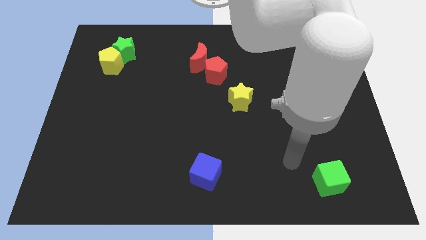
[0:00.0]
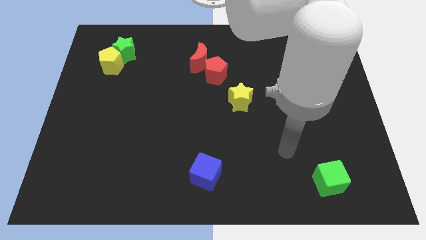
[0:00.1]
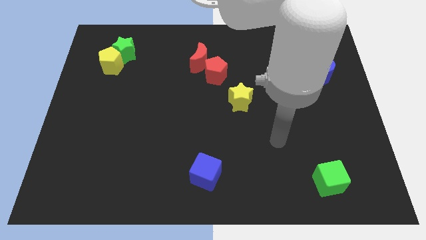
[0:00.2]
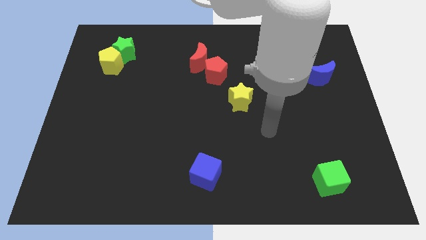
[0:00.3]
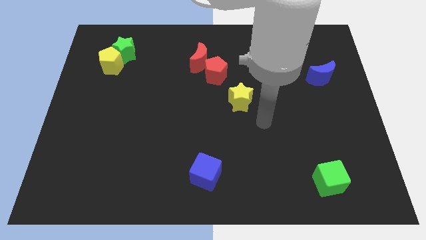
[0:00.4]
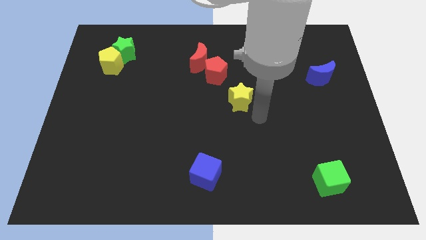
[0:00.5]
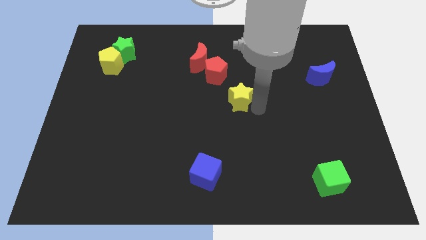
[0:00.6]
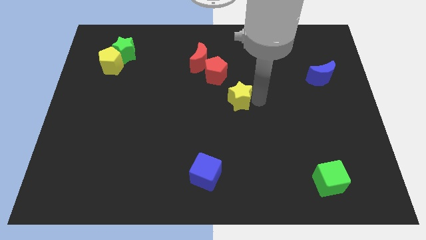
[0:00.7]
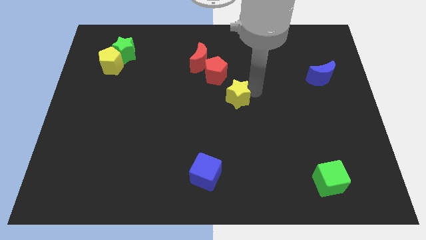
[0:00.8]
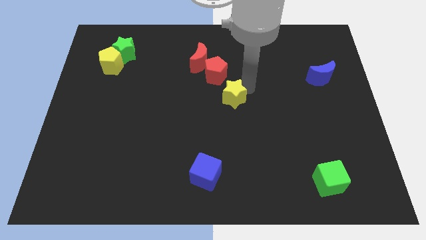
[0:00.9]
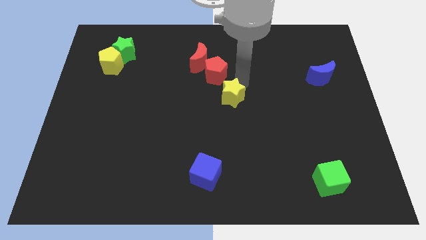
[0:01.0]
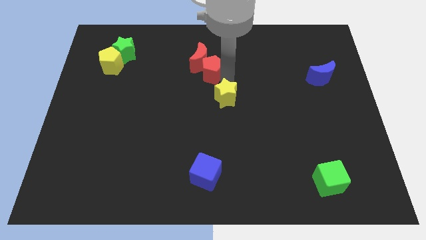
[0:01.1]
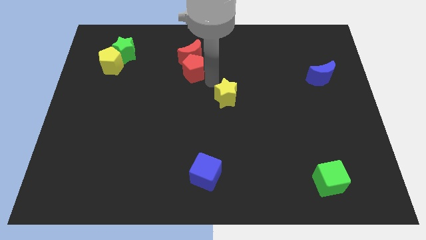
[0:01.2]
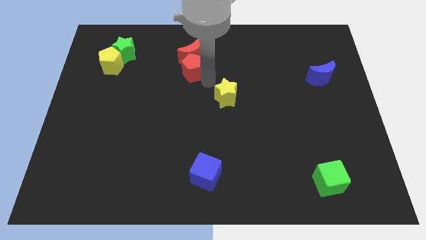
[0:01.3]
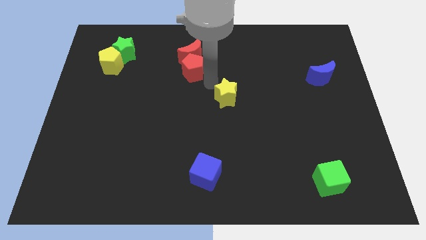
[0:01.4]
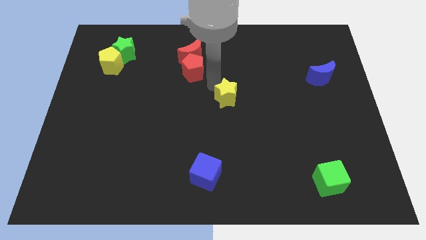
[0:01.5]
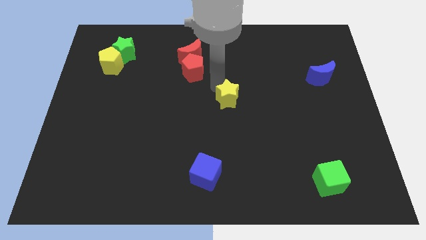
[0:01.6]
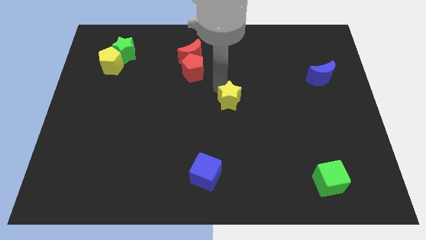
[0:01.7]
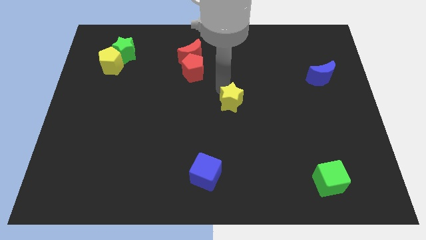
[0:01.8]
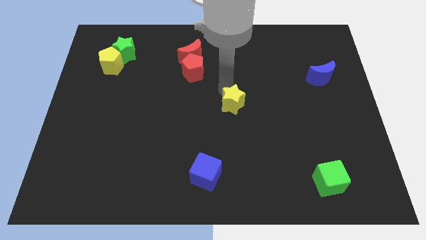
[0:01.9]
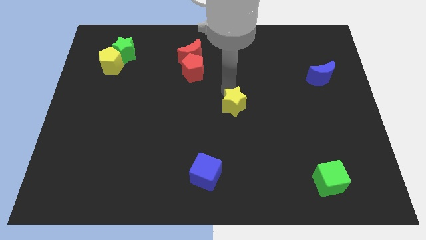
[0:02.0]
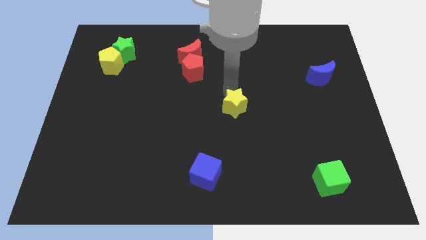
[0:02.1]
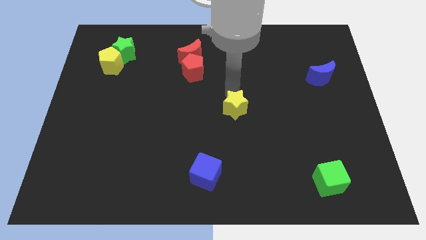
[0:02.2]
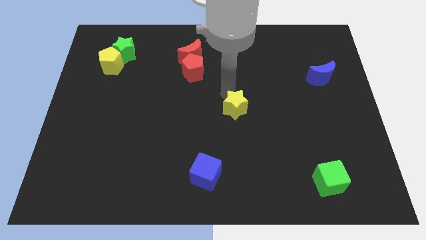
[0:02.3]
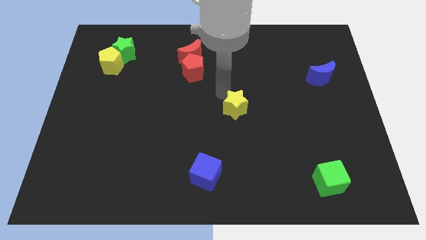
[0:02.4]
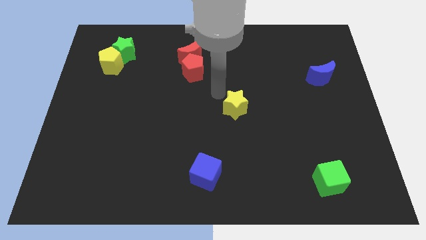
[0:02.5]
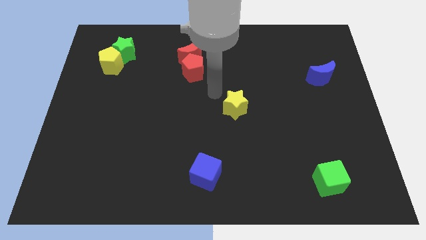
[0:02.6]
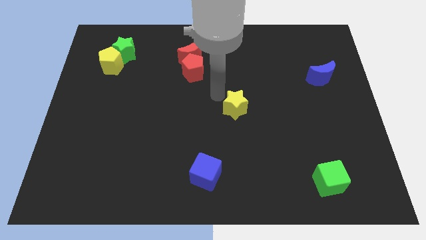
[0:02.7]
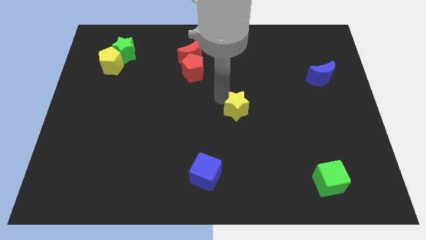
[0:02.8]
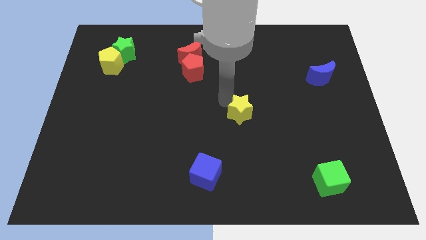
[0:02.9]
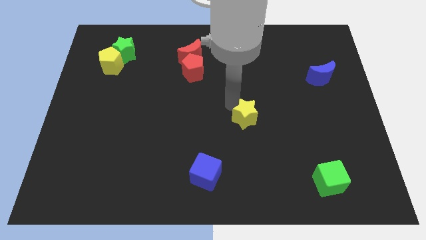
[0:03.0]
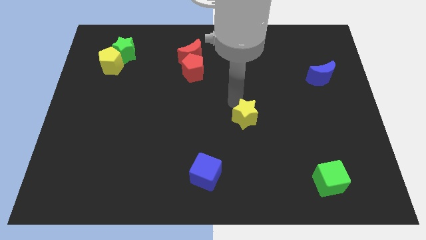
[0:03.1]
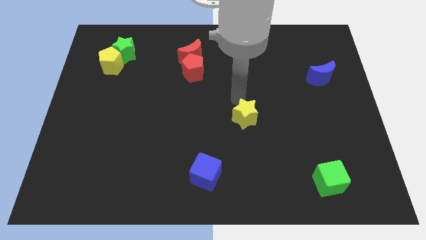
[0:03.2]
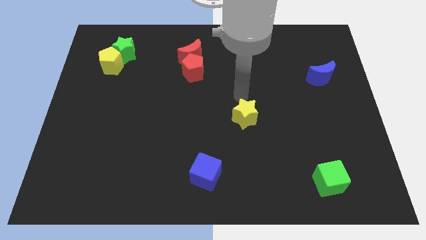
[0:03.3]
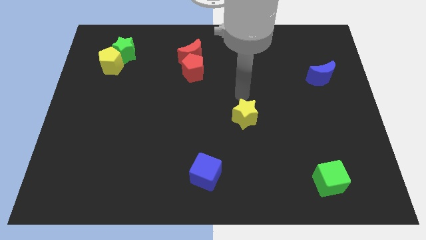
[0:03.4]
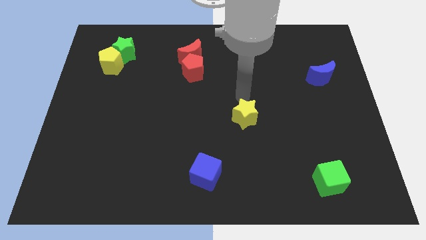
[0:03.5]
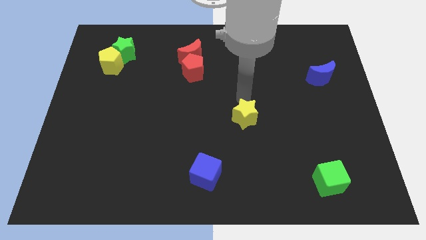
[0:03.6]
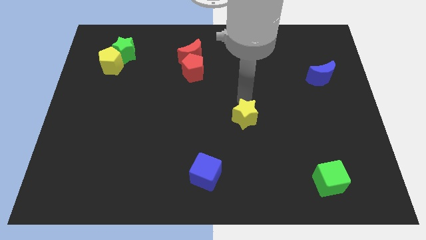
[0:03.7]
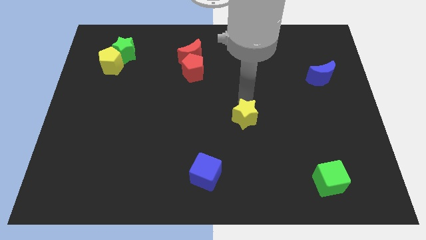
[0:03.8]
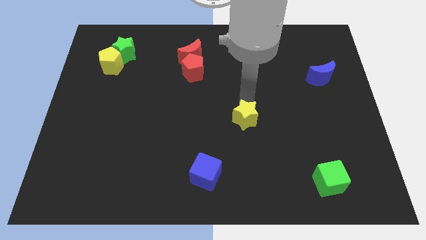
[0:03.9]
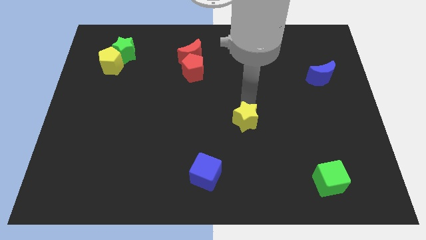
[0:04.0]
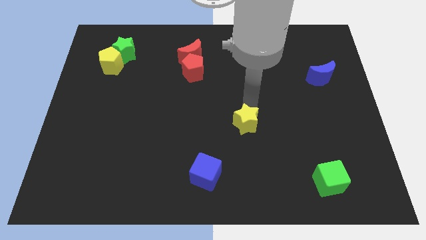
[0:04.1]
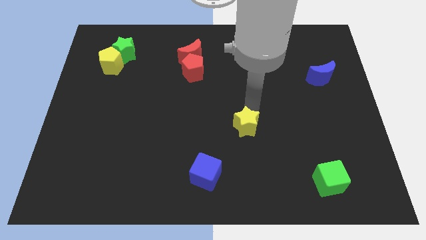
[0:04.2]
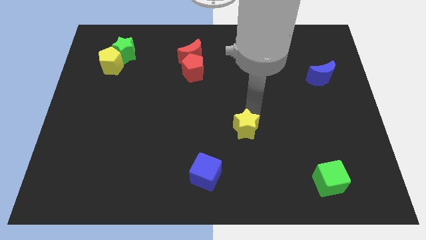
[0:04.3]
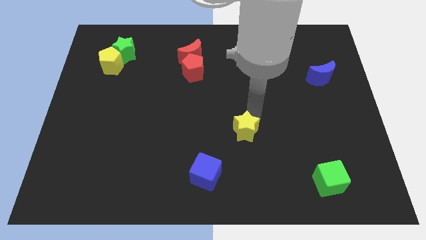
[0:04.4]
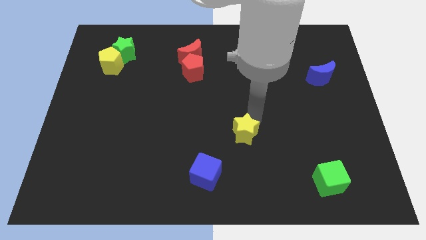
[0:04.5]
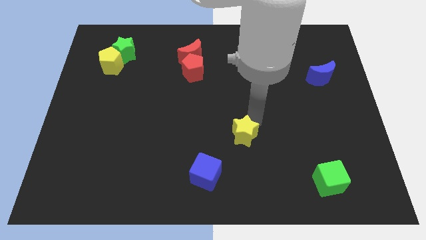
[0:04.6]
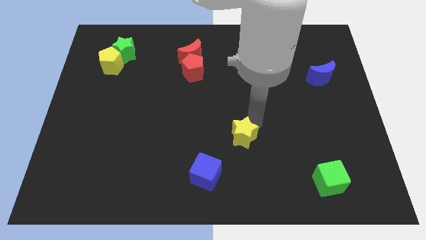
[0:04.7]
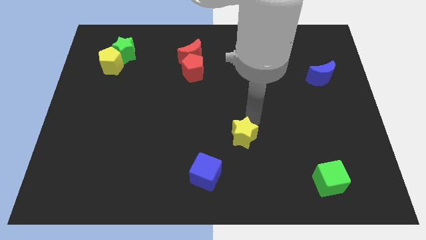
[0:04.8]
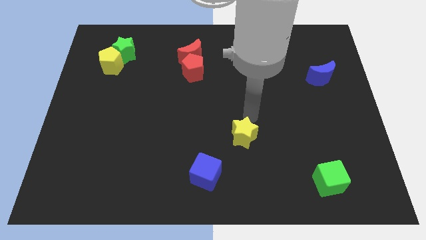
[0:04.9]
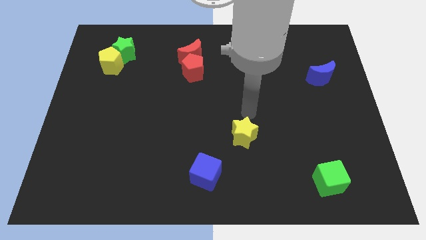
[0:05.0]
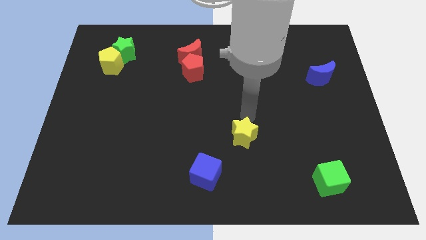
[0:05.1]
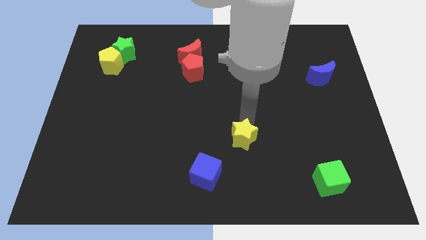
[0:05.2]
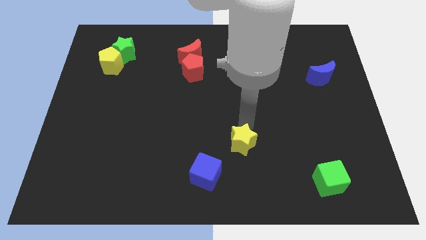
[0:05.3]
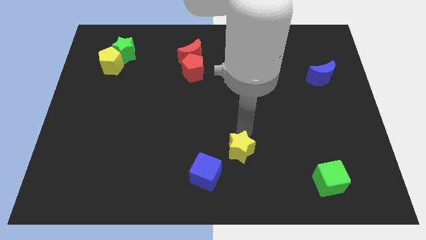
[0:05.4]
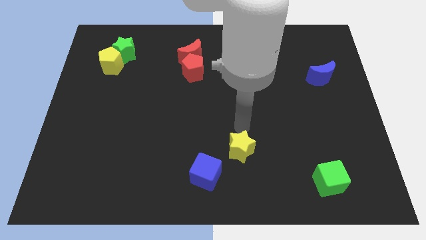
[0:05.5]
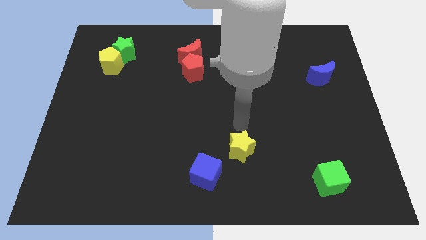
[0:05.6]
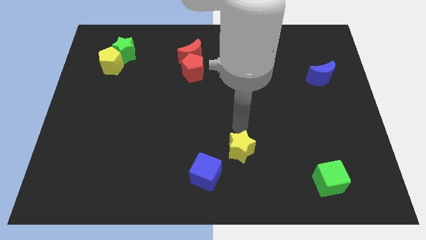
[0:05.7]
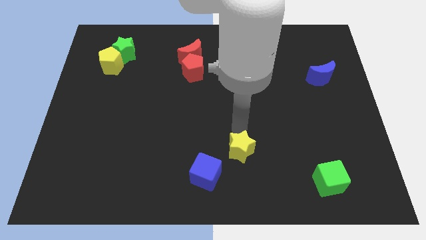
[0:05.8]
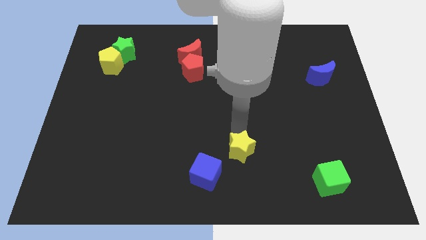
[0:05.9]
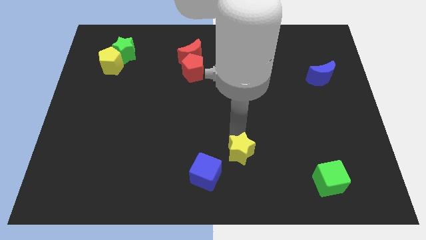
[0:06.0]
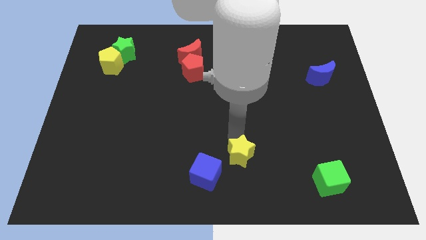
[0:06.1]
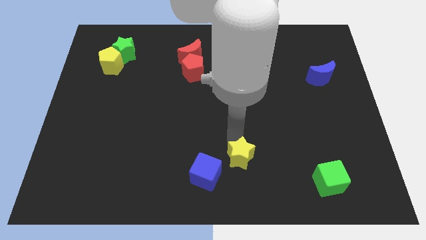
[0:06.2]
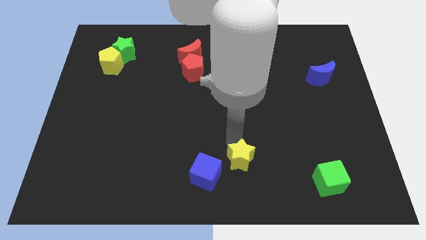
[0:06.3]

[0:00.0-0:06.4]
put the yellow star to the bottom side

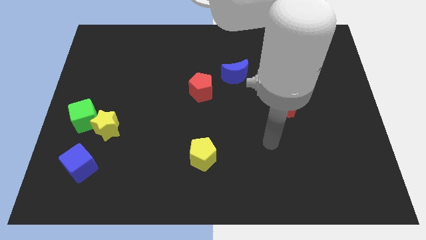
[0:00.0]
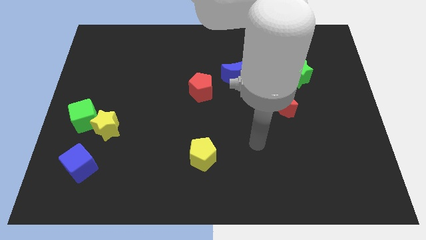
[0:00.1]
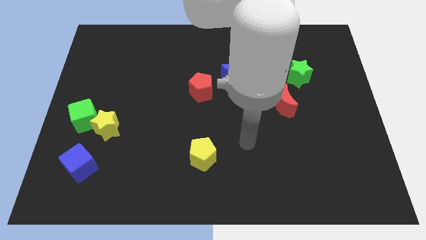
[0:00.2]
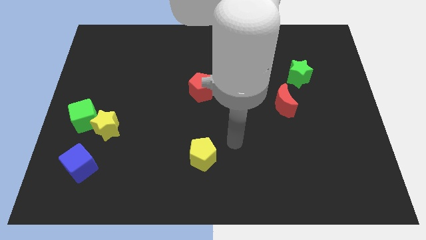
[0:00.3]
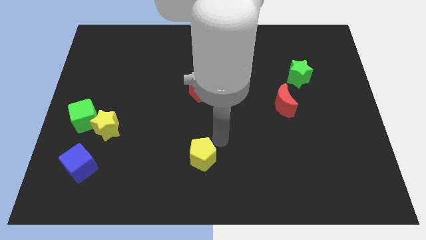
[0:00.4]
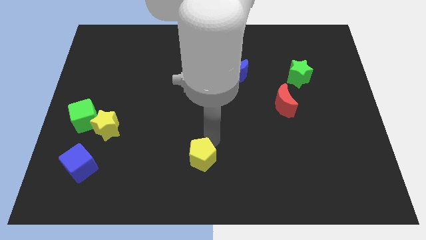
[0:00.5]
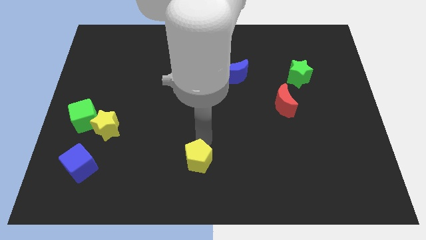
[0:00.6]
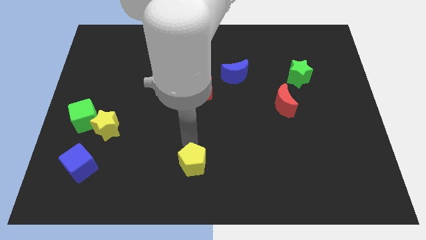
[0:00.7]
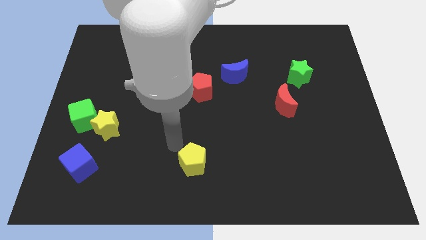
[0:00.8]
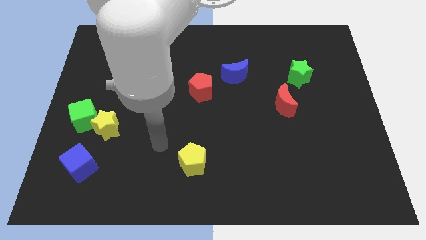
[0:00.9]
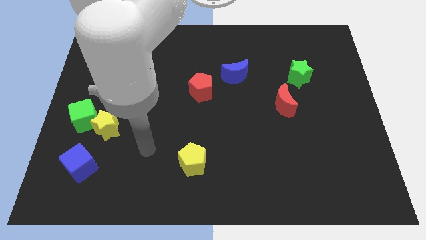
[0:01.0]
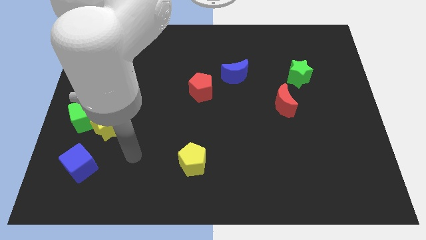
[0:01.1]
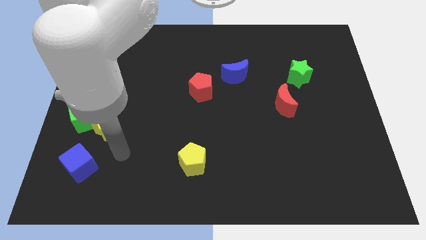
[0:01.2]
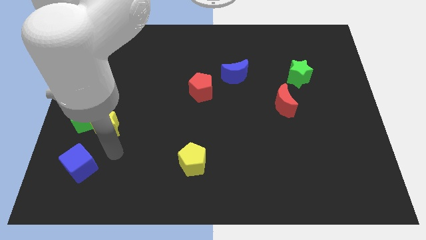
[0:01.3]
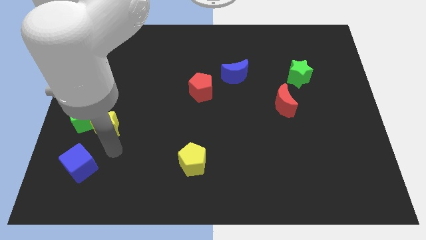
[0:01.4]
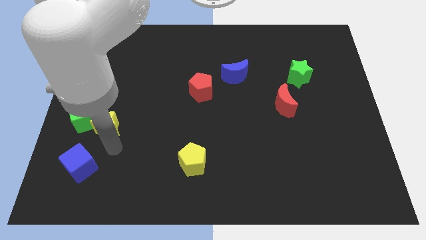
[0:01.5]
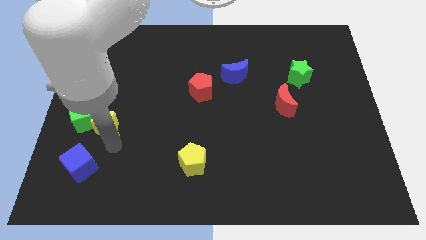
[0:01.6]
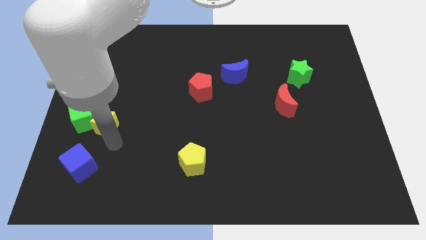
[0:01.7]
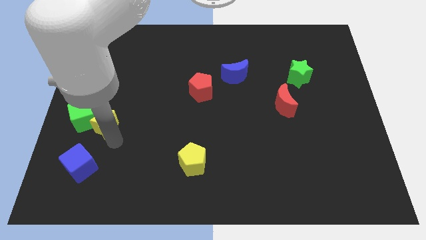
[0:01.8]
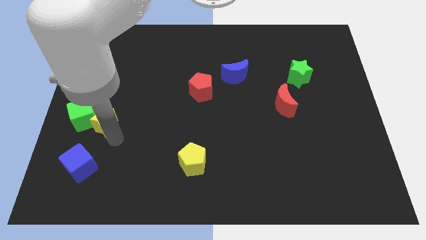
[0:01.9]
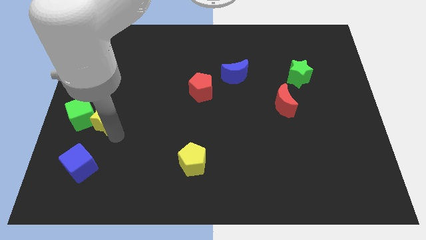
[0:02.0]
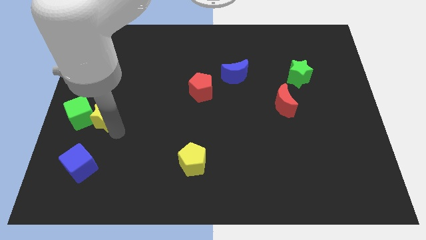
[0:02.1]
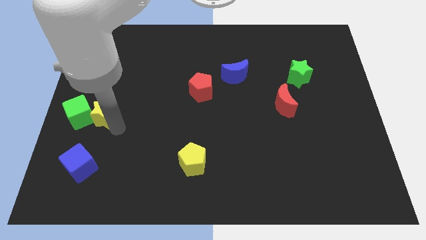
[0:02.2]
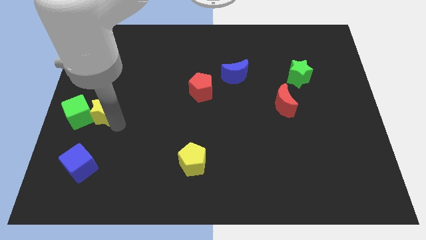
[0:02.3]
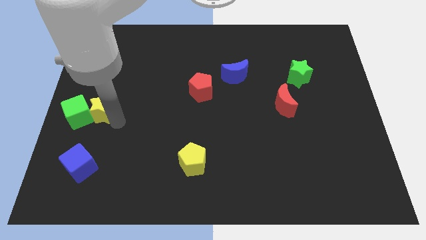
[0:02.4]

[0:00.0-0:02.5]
push the yellow star to the left side
